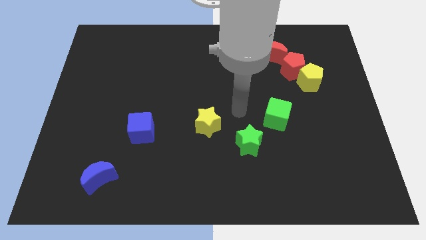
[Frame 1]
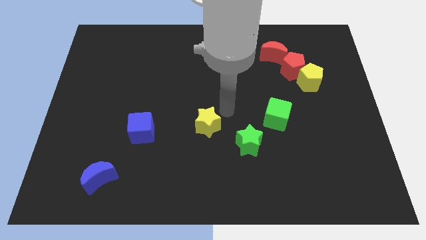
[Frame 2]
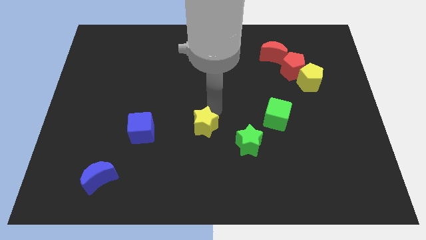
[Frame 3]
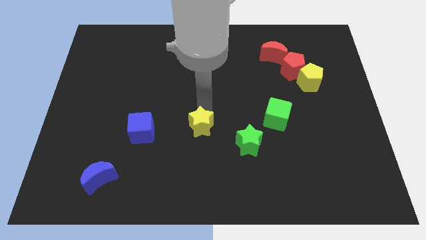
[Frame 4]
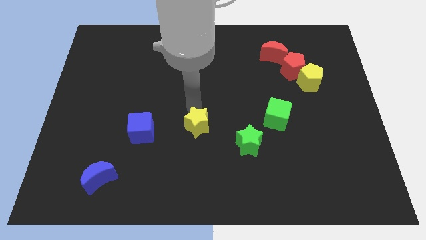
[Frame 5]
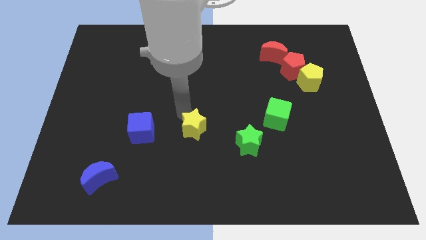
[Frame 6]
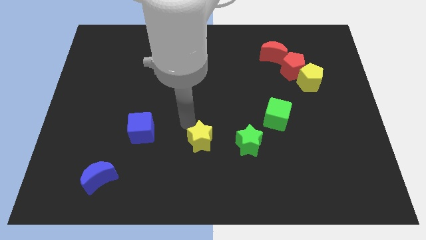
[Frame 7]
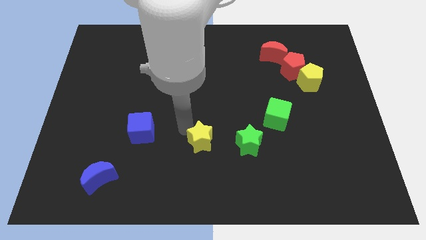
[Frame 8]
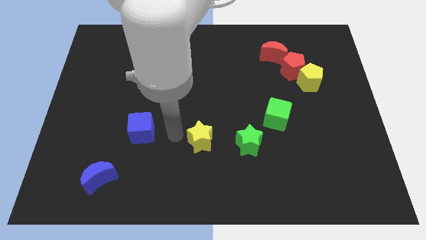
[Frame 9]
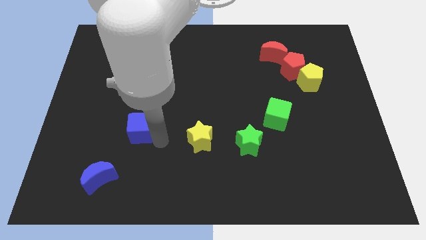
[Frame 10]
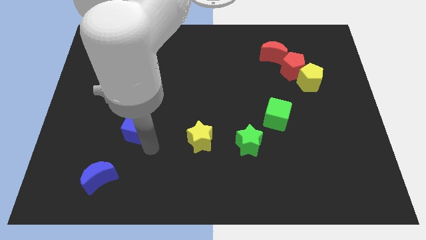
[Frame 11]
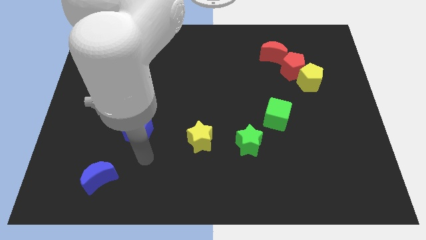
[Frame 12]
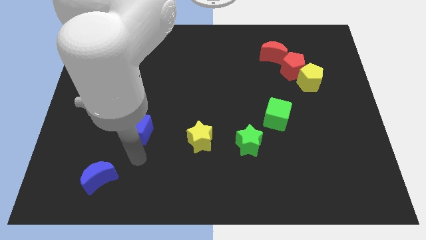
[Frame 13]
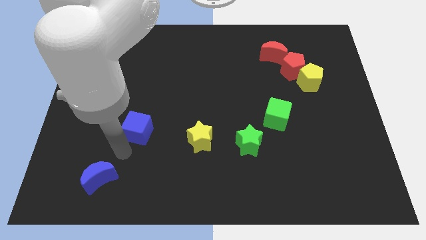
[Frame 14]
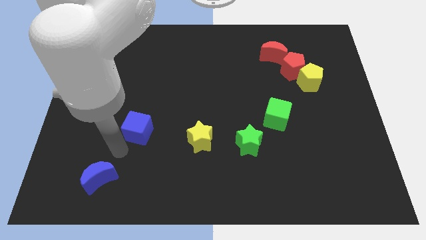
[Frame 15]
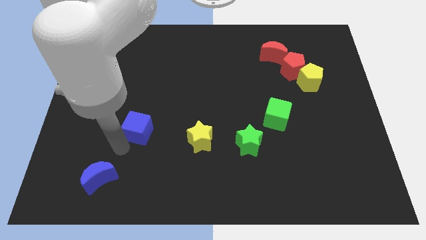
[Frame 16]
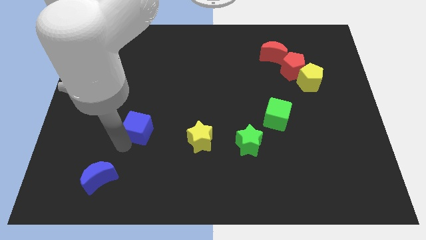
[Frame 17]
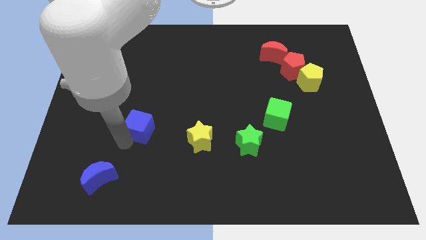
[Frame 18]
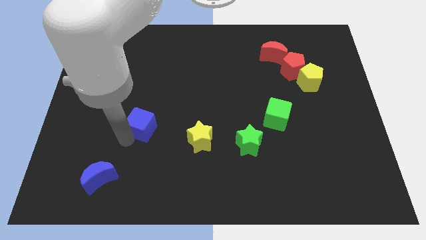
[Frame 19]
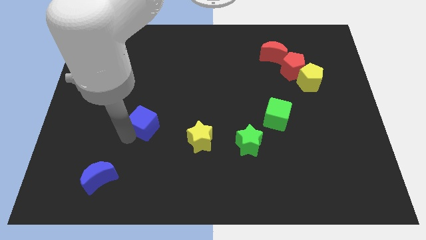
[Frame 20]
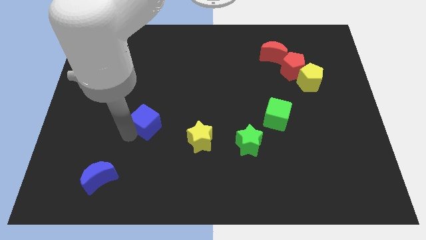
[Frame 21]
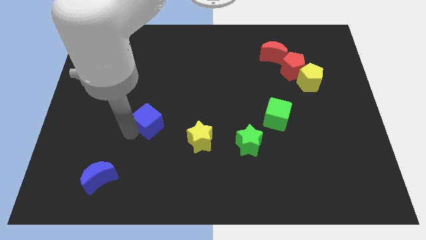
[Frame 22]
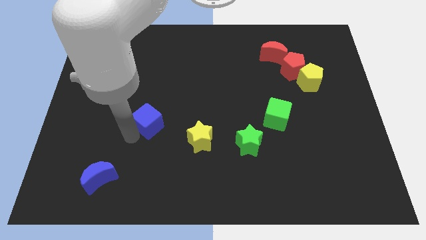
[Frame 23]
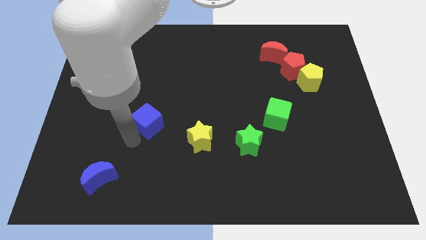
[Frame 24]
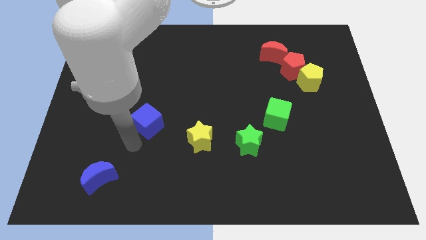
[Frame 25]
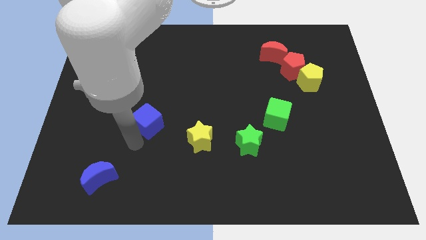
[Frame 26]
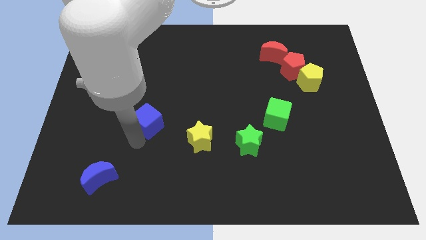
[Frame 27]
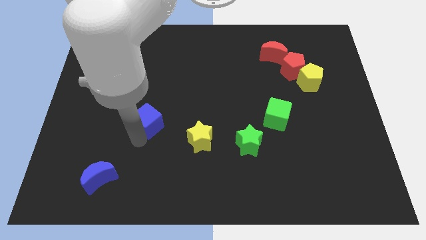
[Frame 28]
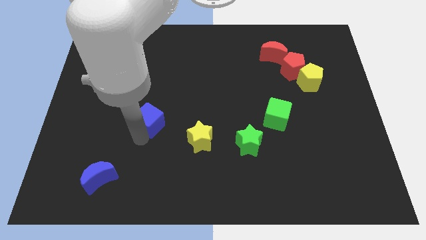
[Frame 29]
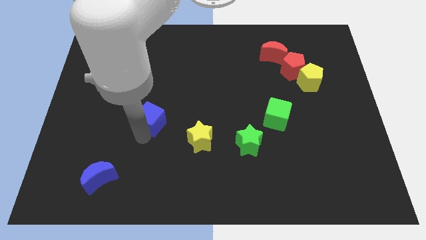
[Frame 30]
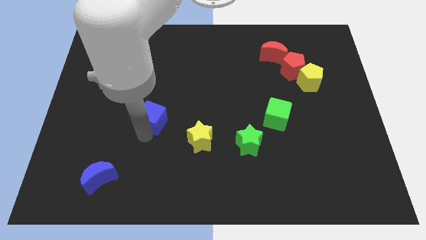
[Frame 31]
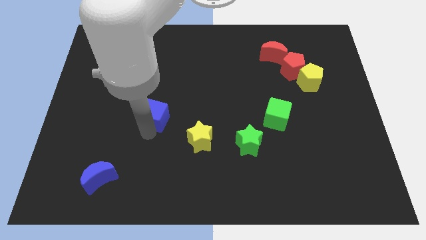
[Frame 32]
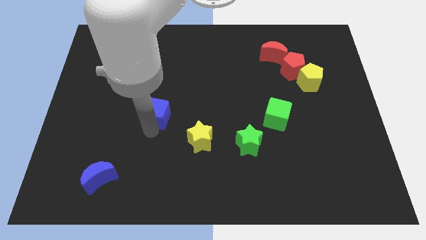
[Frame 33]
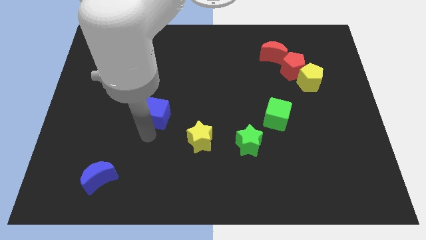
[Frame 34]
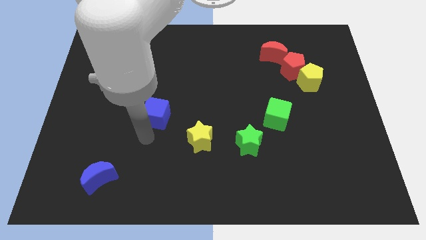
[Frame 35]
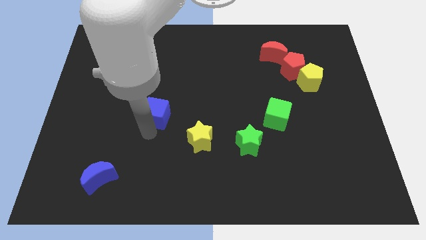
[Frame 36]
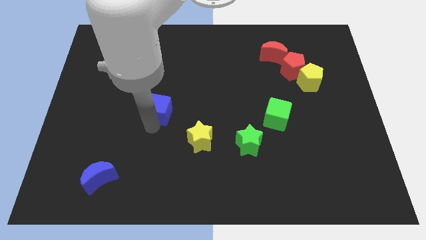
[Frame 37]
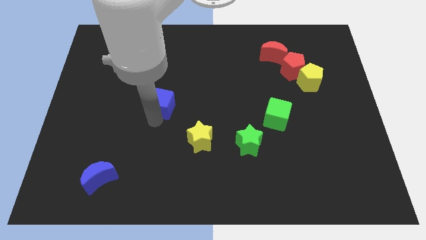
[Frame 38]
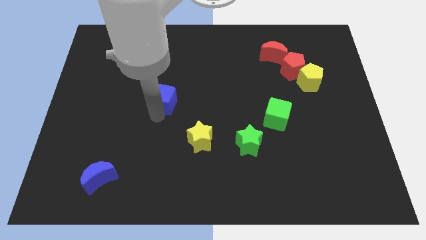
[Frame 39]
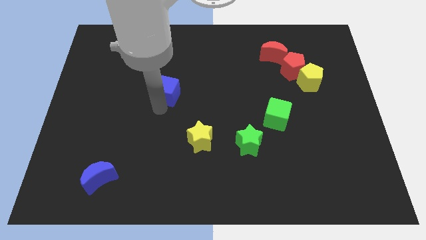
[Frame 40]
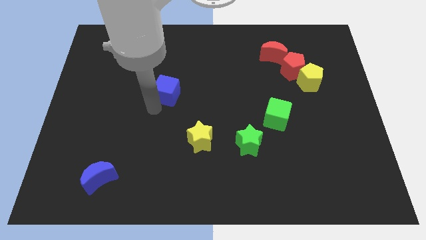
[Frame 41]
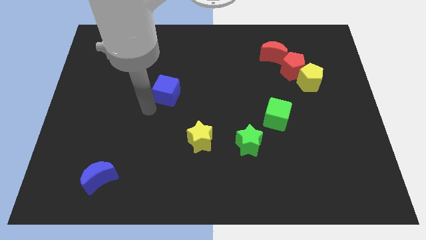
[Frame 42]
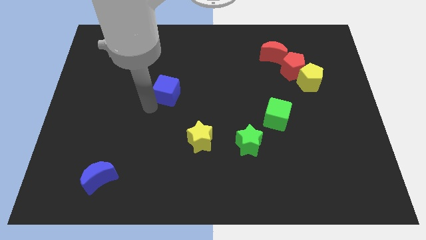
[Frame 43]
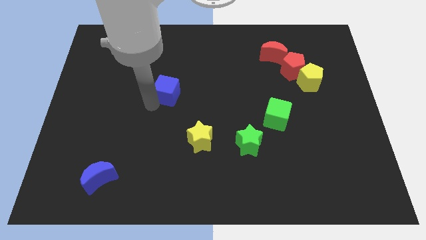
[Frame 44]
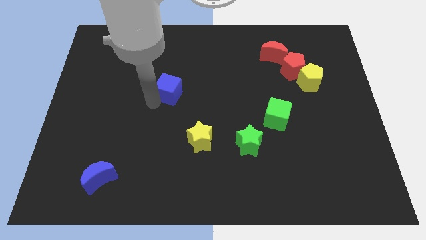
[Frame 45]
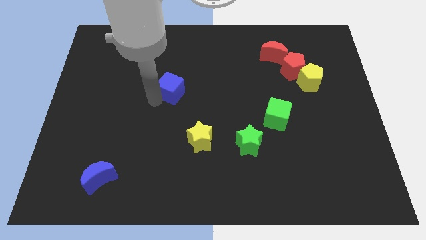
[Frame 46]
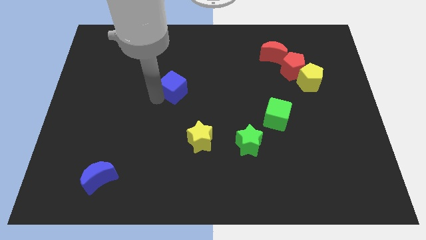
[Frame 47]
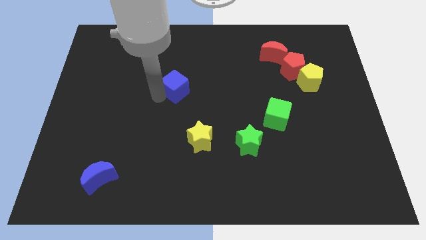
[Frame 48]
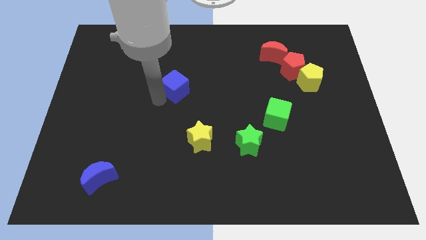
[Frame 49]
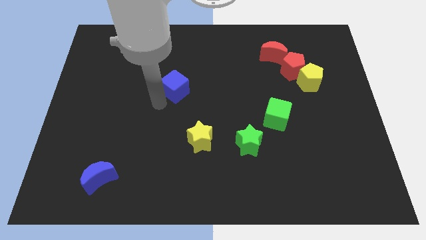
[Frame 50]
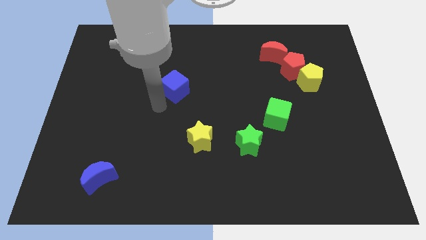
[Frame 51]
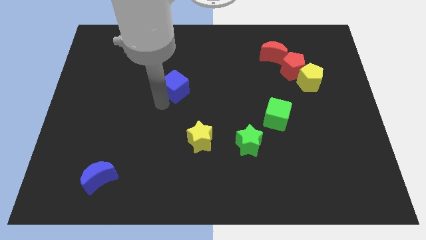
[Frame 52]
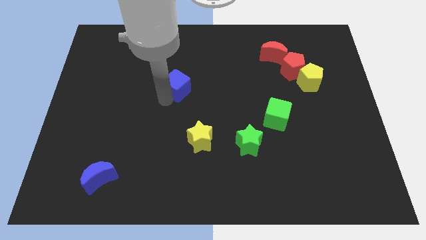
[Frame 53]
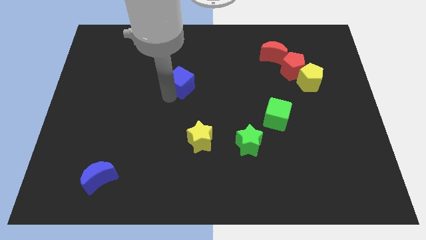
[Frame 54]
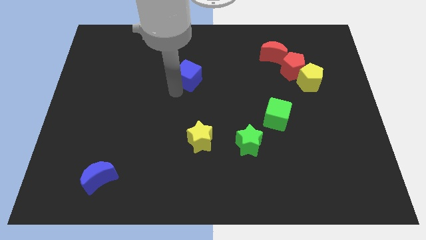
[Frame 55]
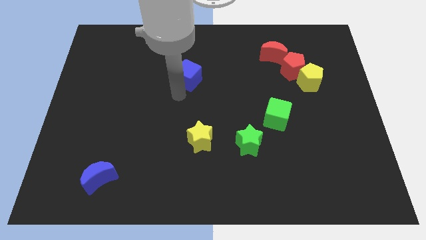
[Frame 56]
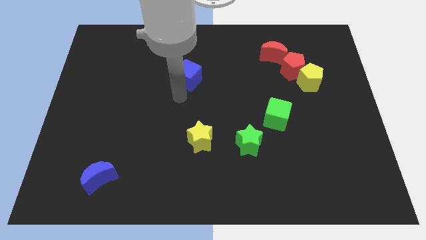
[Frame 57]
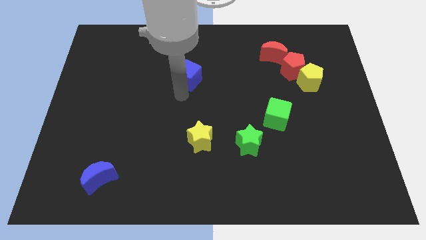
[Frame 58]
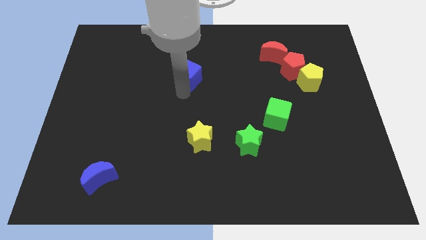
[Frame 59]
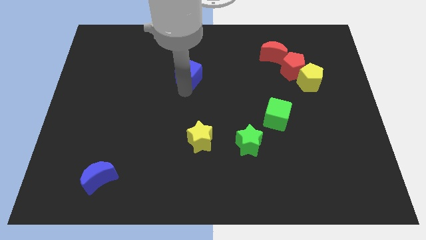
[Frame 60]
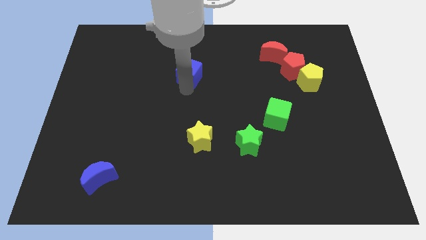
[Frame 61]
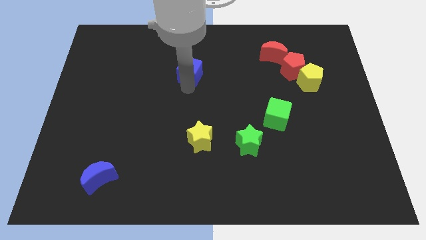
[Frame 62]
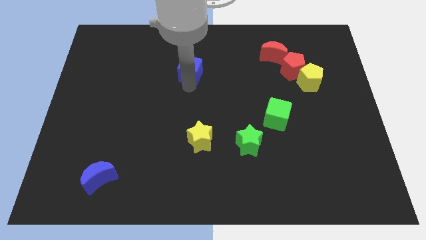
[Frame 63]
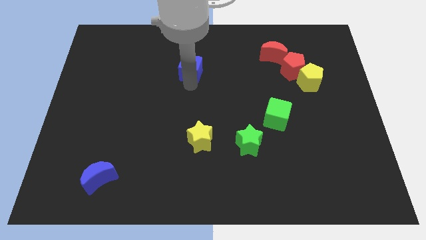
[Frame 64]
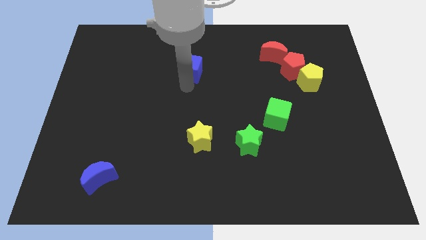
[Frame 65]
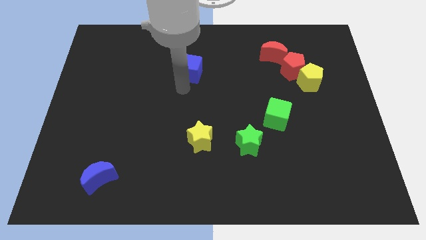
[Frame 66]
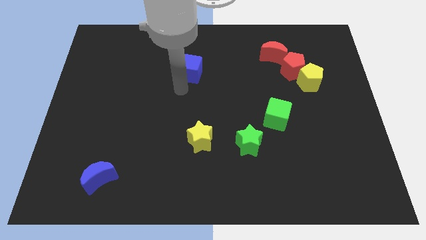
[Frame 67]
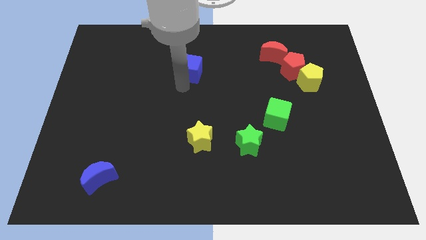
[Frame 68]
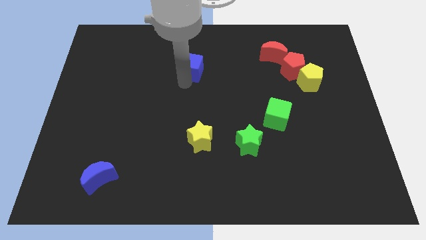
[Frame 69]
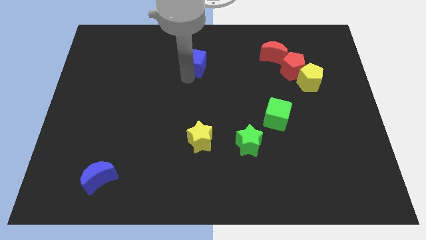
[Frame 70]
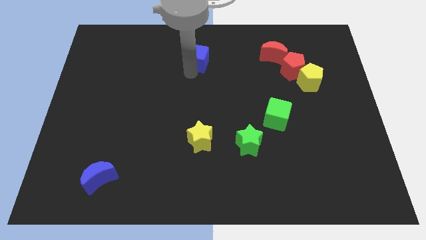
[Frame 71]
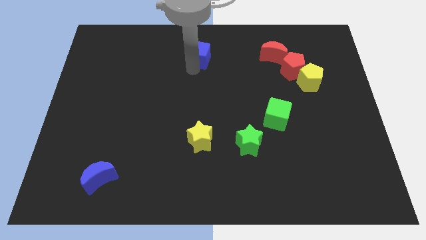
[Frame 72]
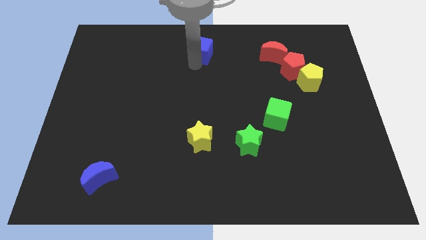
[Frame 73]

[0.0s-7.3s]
move the blue cube to the top side
